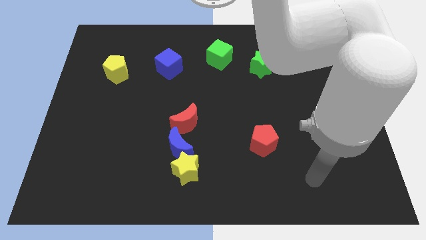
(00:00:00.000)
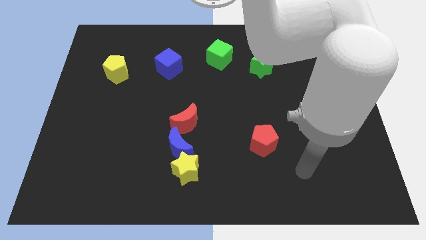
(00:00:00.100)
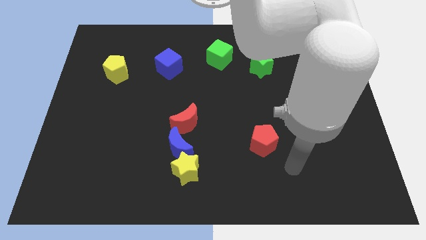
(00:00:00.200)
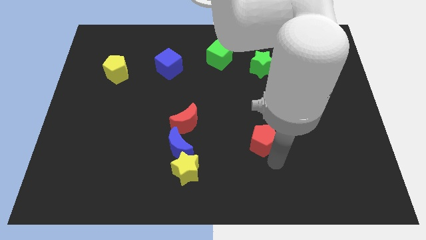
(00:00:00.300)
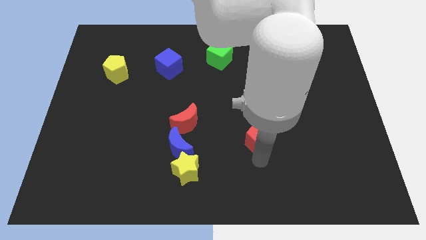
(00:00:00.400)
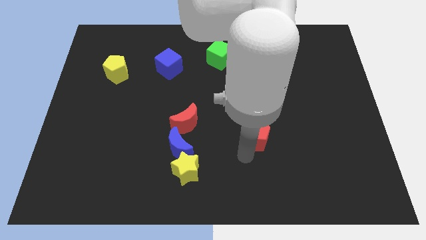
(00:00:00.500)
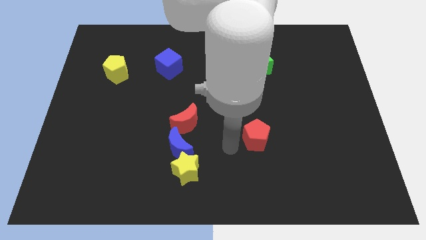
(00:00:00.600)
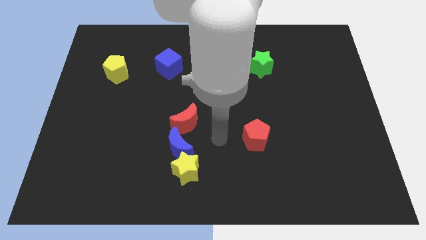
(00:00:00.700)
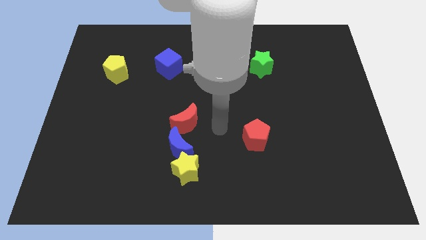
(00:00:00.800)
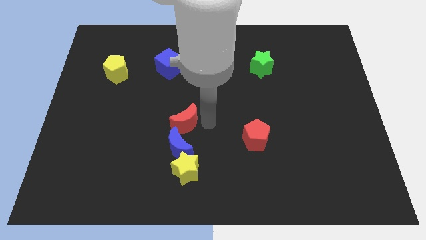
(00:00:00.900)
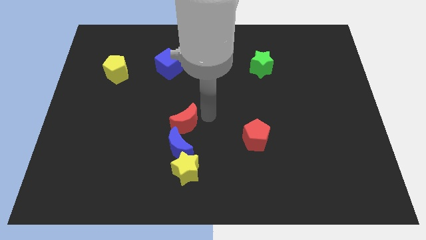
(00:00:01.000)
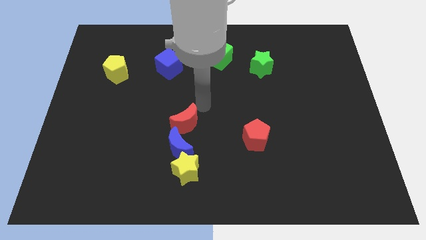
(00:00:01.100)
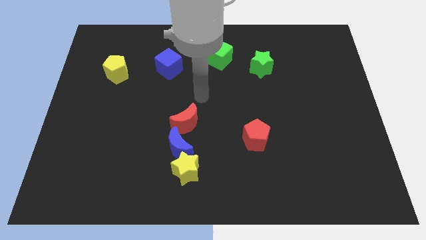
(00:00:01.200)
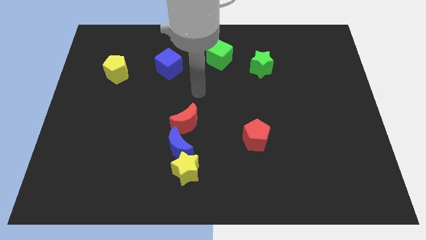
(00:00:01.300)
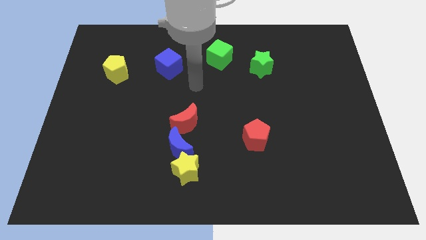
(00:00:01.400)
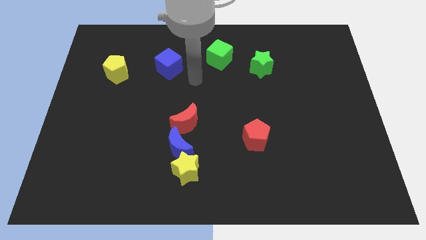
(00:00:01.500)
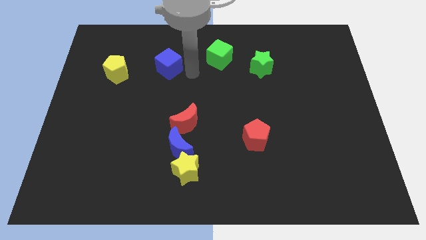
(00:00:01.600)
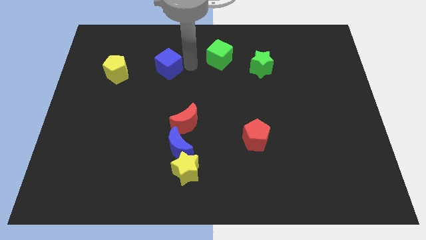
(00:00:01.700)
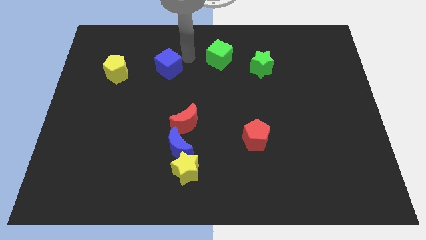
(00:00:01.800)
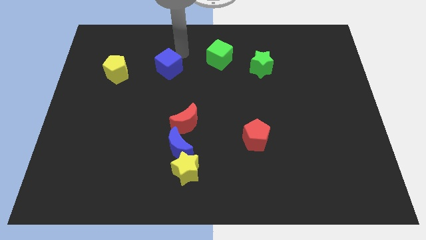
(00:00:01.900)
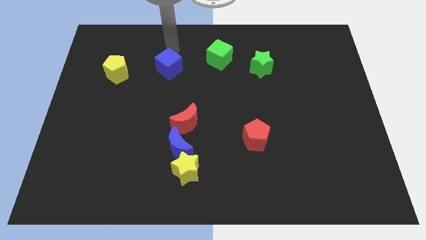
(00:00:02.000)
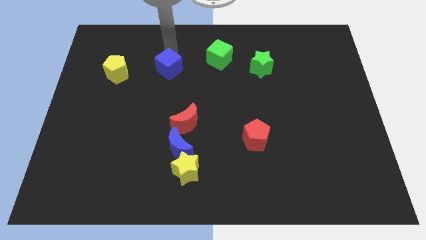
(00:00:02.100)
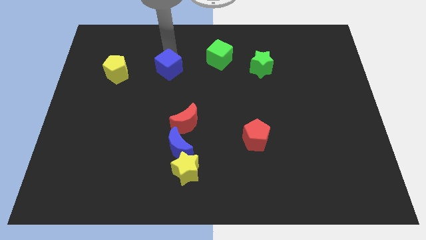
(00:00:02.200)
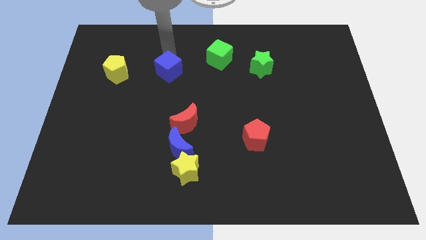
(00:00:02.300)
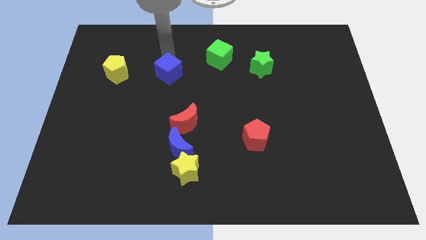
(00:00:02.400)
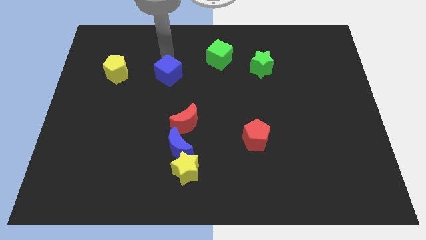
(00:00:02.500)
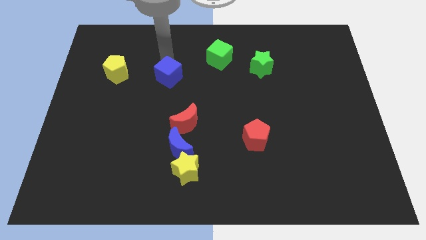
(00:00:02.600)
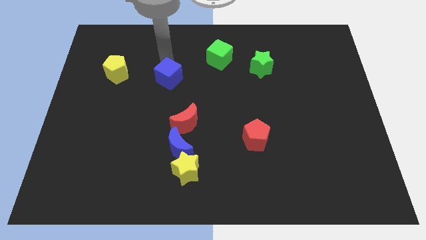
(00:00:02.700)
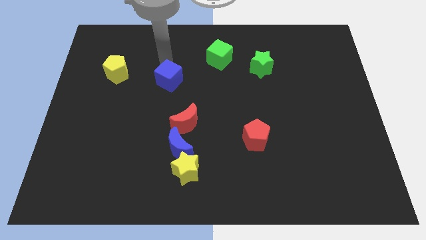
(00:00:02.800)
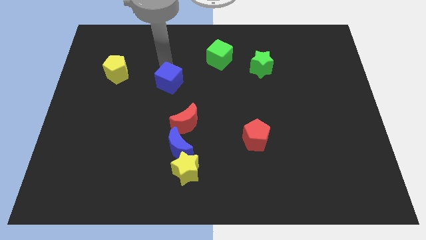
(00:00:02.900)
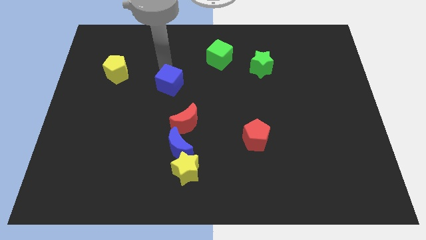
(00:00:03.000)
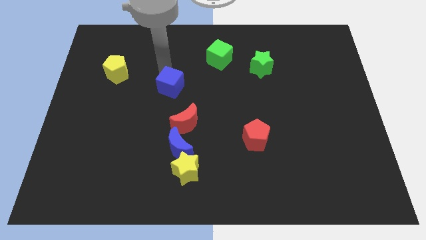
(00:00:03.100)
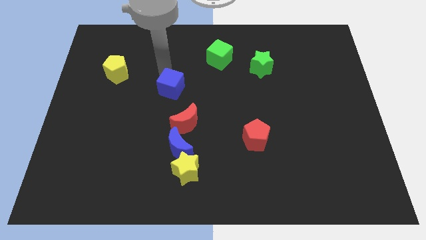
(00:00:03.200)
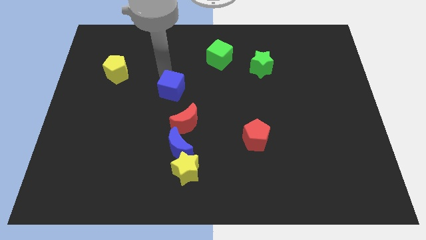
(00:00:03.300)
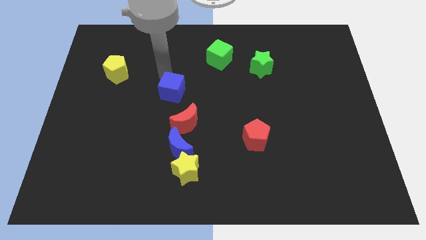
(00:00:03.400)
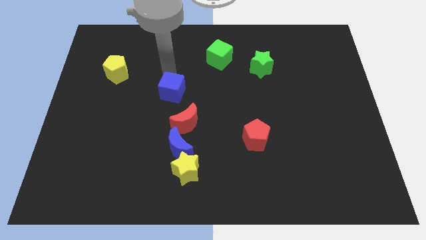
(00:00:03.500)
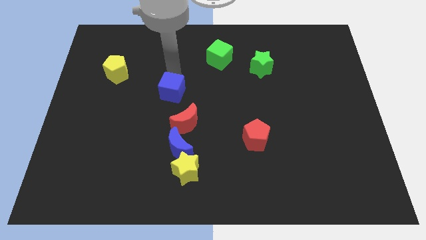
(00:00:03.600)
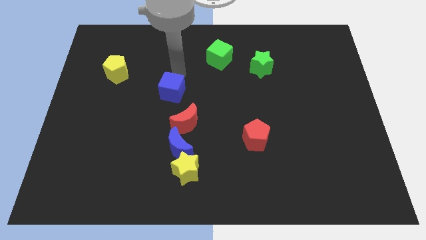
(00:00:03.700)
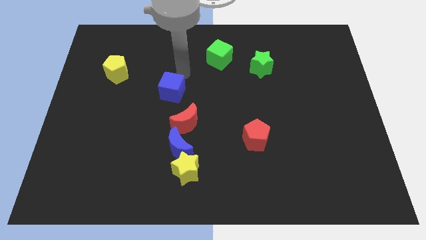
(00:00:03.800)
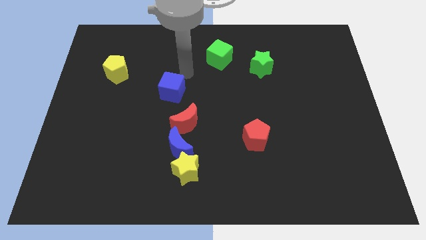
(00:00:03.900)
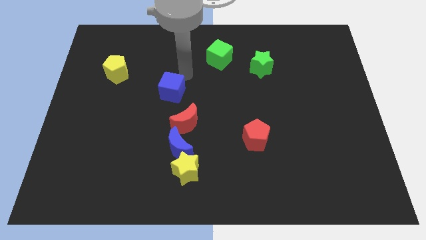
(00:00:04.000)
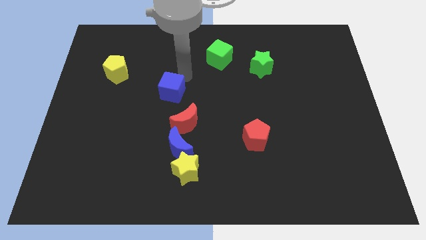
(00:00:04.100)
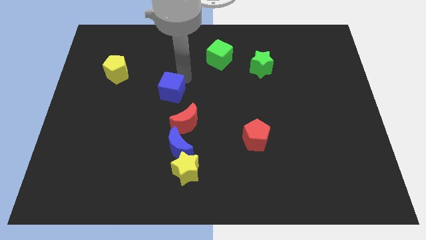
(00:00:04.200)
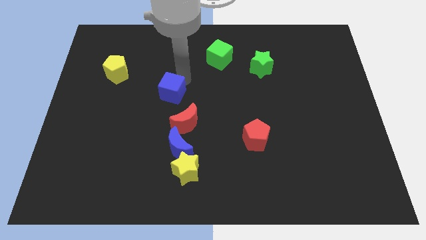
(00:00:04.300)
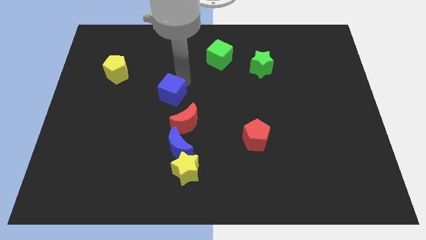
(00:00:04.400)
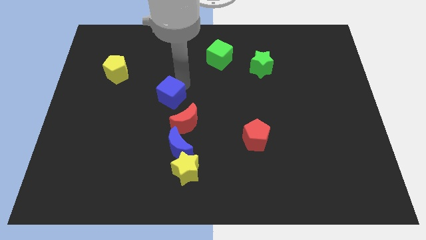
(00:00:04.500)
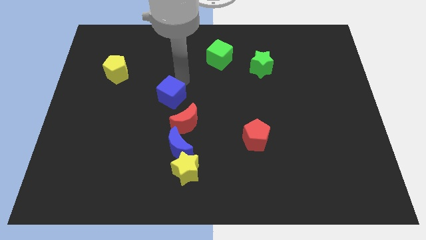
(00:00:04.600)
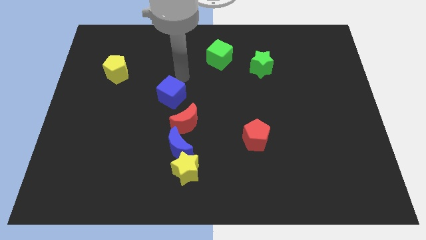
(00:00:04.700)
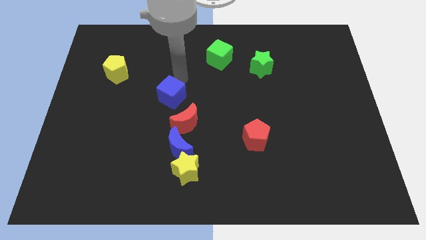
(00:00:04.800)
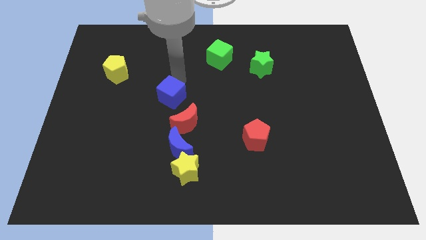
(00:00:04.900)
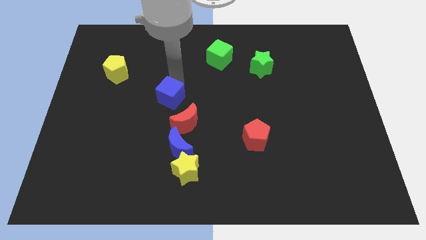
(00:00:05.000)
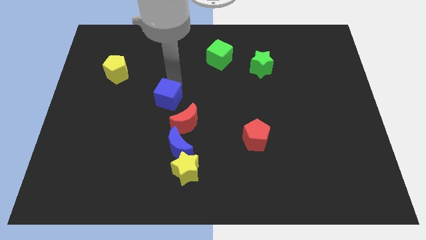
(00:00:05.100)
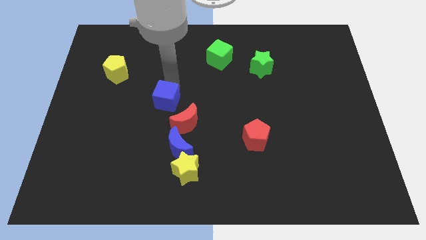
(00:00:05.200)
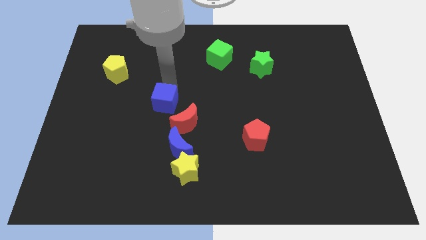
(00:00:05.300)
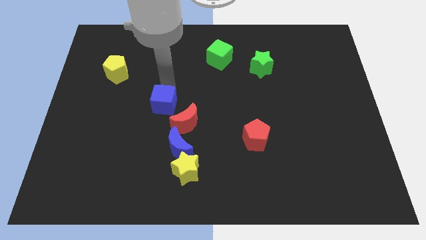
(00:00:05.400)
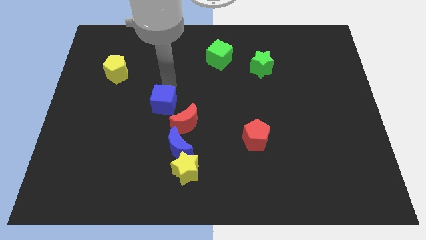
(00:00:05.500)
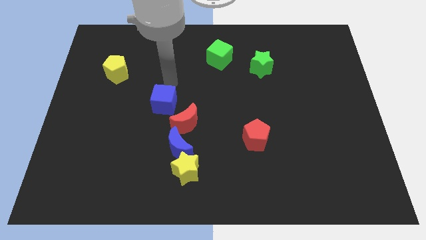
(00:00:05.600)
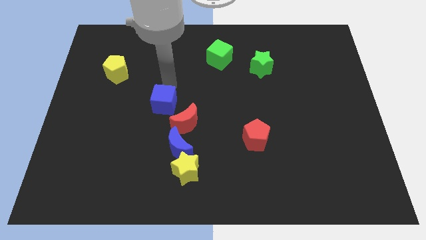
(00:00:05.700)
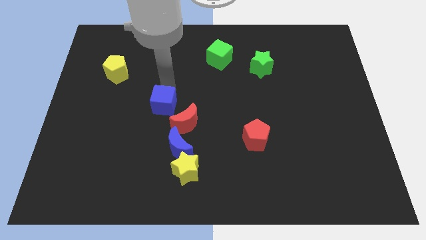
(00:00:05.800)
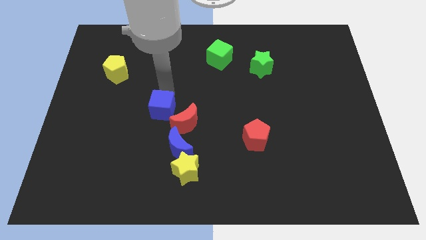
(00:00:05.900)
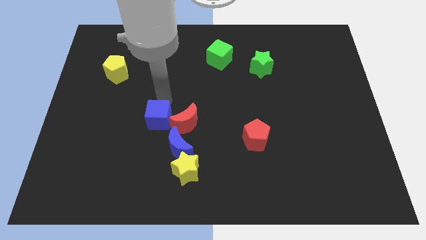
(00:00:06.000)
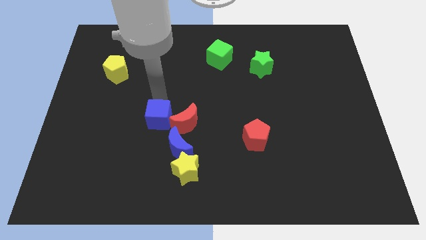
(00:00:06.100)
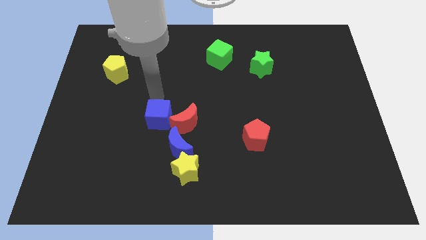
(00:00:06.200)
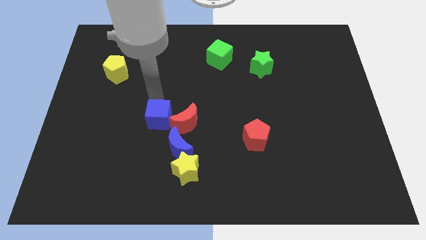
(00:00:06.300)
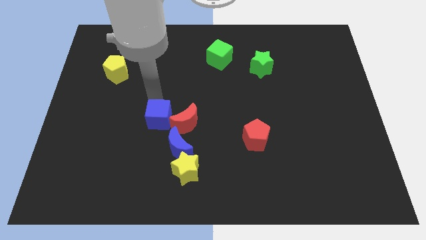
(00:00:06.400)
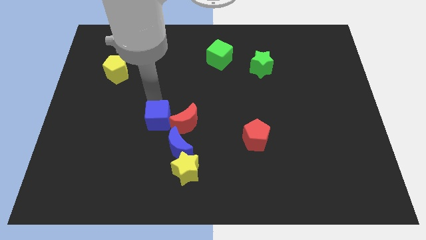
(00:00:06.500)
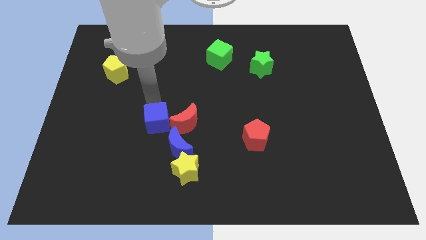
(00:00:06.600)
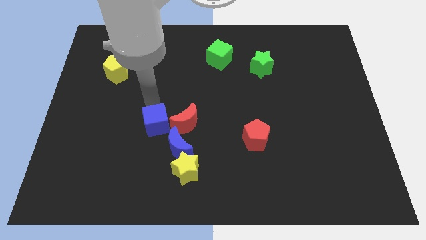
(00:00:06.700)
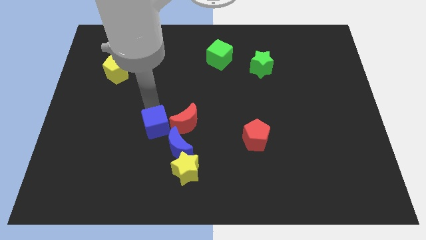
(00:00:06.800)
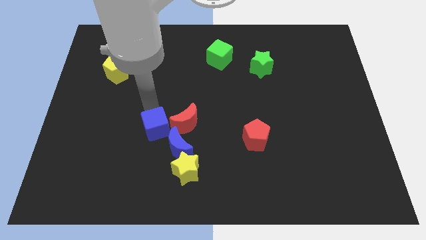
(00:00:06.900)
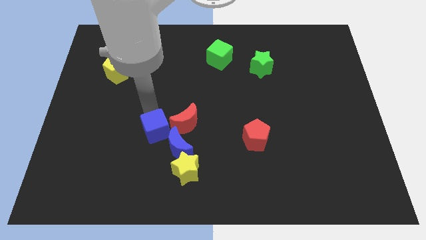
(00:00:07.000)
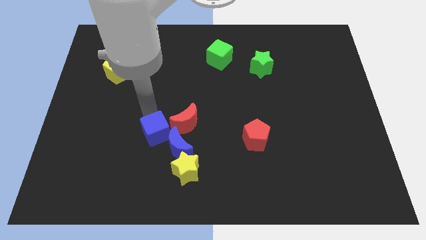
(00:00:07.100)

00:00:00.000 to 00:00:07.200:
slide the blue cube downwards

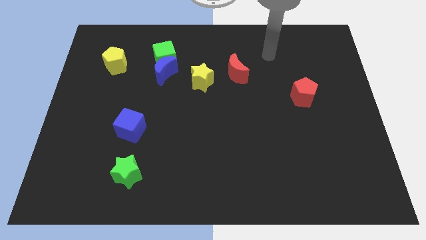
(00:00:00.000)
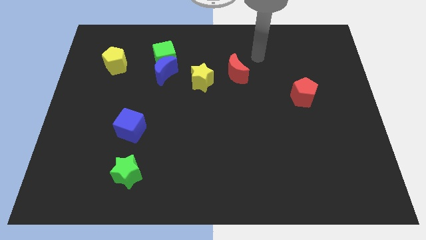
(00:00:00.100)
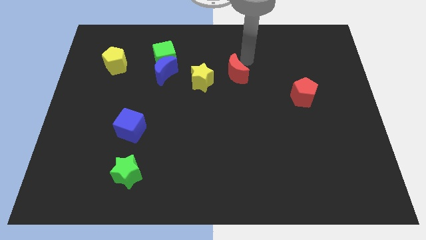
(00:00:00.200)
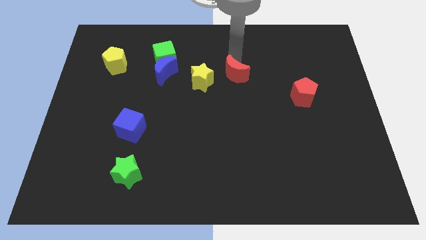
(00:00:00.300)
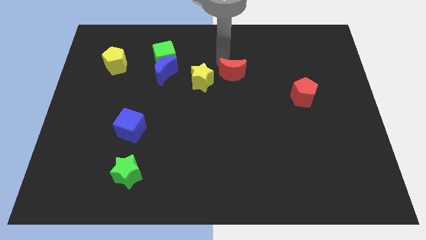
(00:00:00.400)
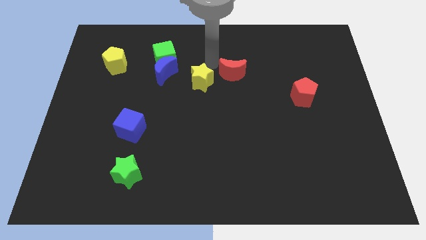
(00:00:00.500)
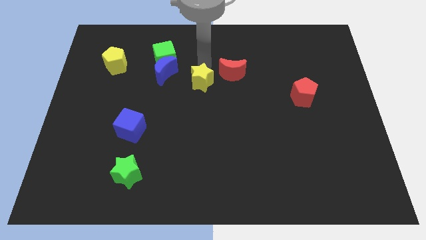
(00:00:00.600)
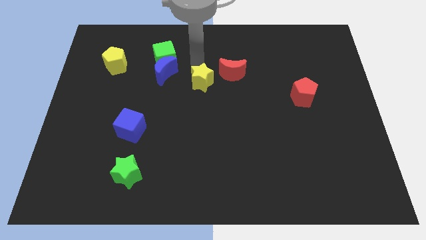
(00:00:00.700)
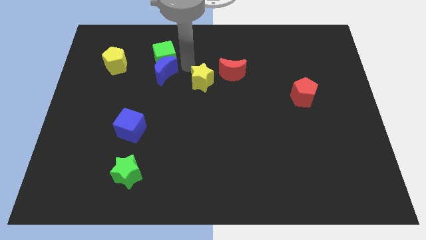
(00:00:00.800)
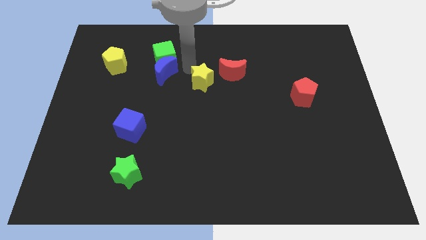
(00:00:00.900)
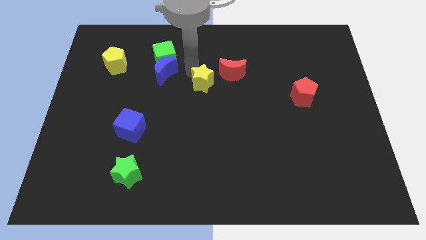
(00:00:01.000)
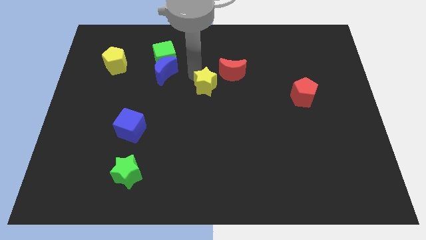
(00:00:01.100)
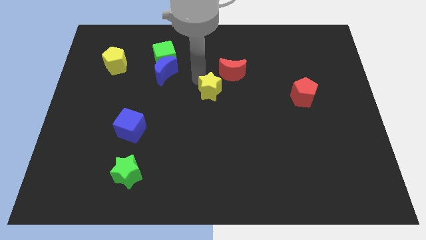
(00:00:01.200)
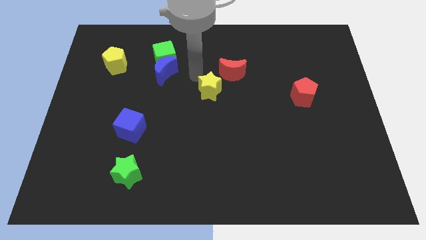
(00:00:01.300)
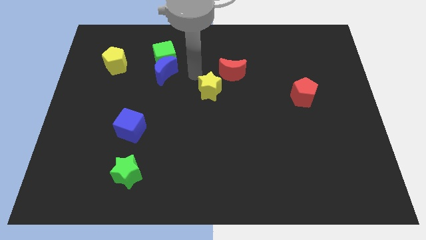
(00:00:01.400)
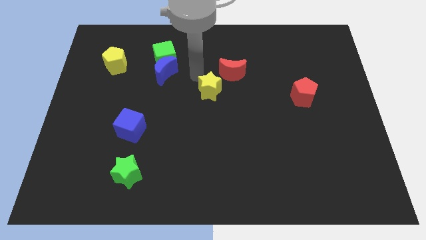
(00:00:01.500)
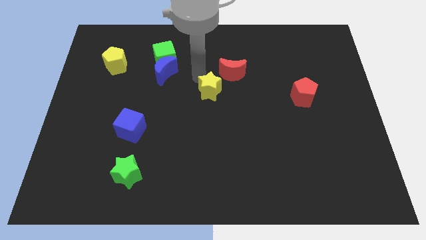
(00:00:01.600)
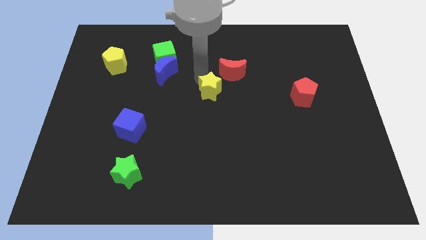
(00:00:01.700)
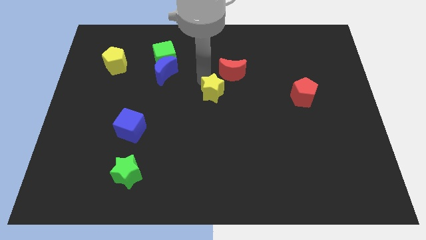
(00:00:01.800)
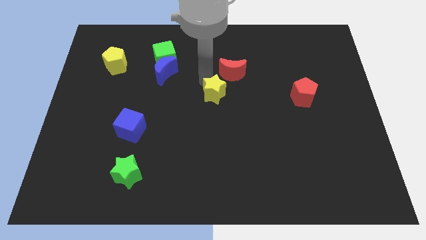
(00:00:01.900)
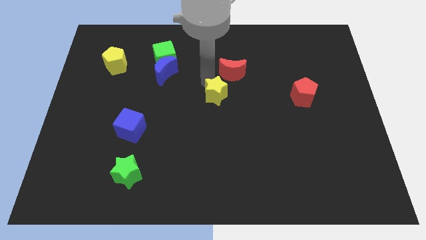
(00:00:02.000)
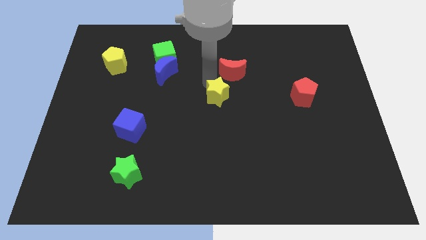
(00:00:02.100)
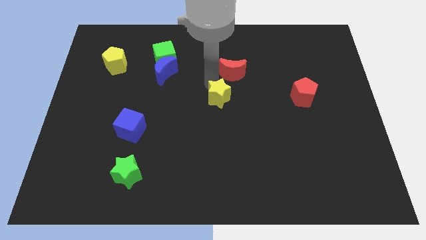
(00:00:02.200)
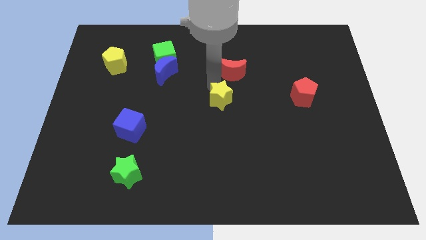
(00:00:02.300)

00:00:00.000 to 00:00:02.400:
slide the yellow star downwards and right a little bit
